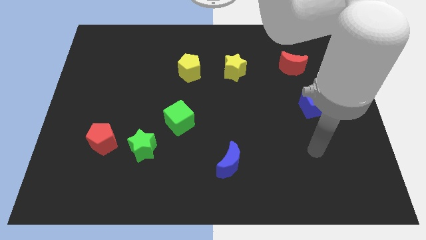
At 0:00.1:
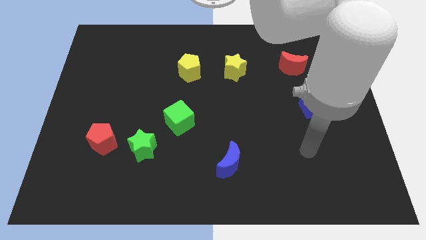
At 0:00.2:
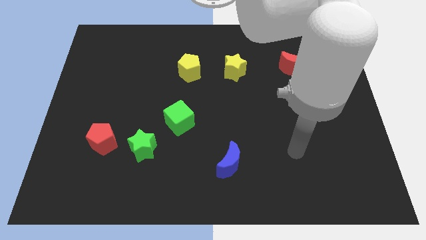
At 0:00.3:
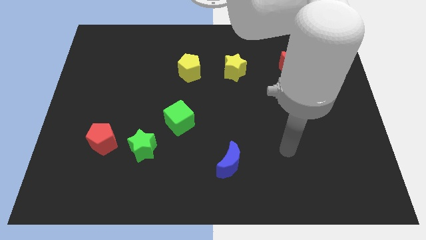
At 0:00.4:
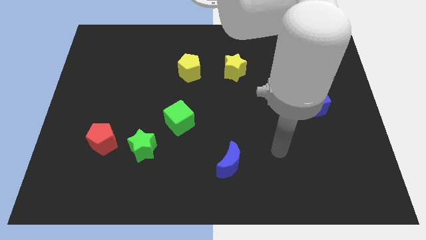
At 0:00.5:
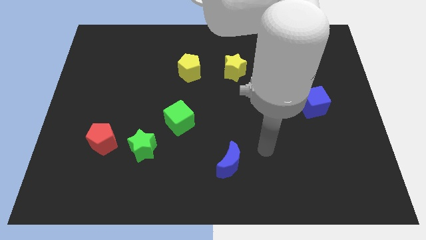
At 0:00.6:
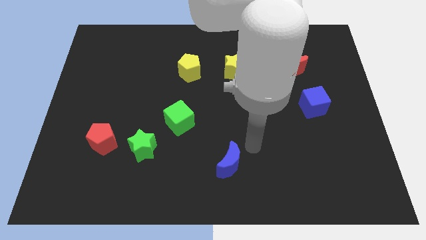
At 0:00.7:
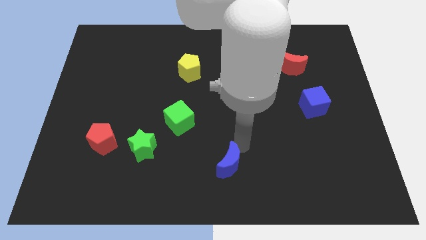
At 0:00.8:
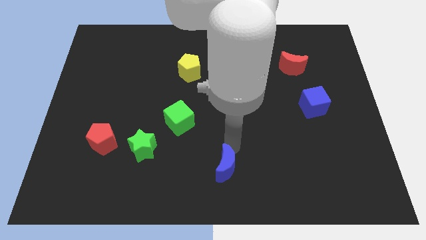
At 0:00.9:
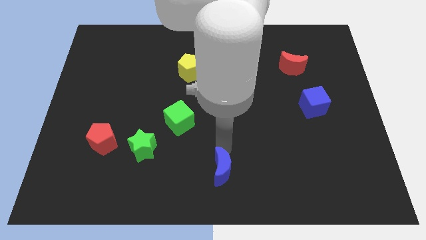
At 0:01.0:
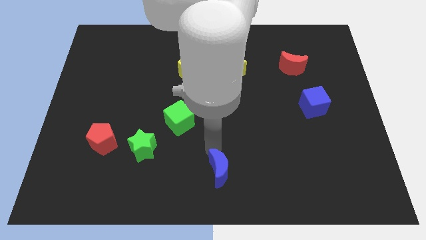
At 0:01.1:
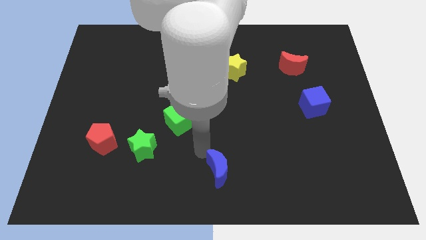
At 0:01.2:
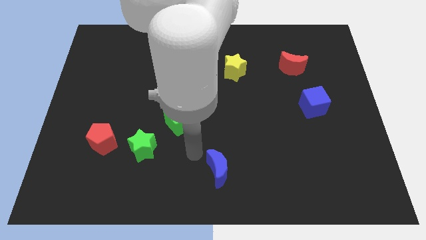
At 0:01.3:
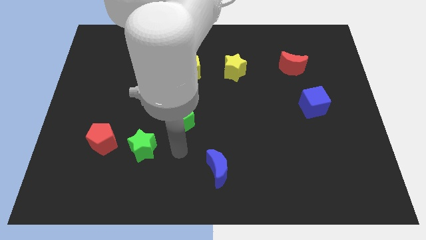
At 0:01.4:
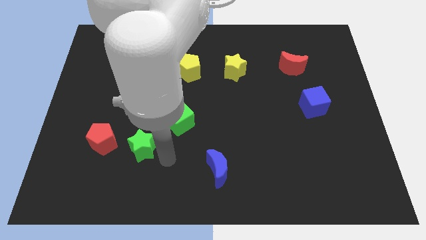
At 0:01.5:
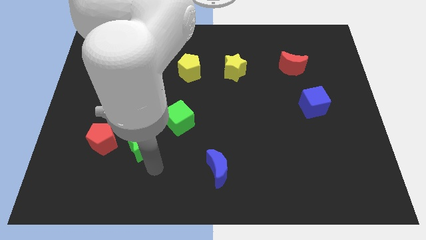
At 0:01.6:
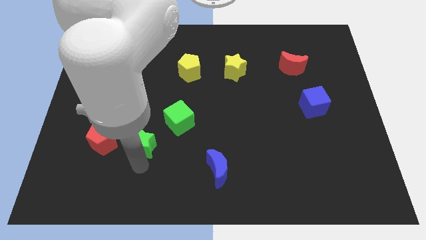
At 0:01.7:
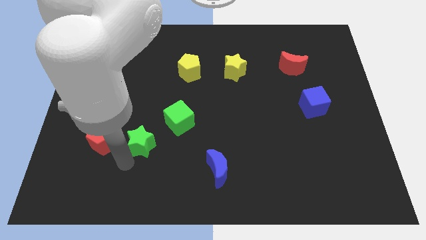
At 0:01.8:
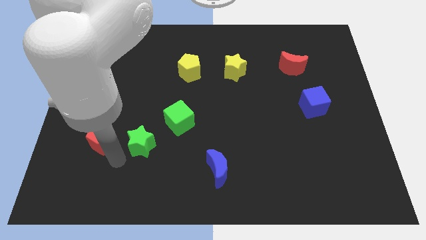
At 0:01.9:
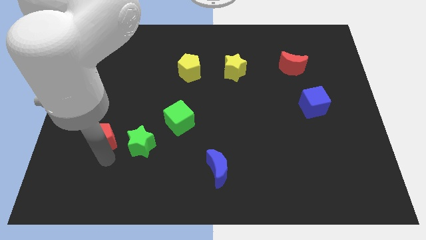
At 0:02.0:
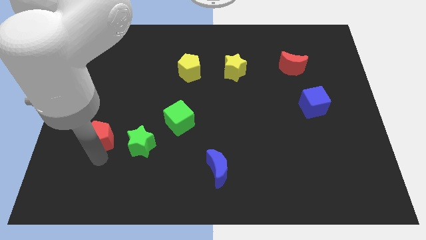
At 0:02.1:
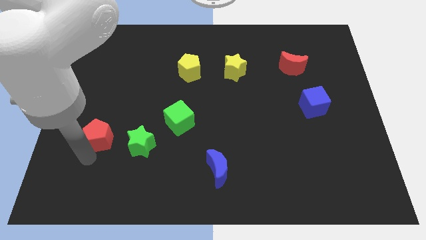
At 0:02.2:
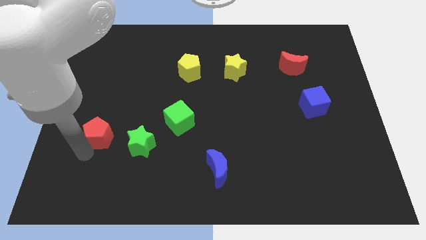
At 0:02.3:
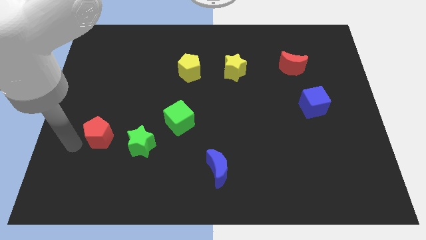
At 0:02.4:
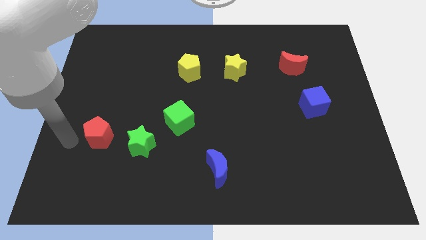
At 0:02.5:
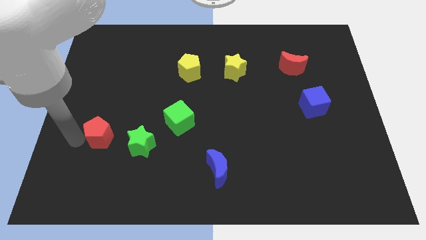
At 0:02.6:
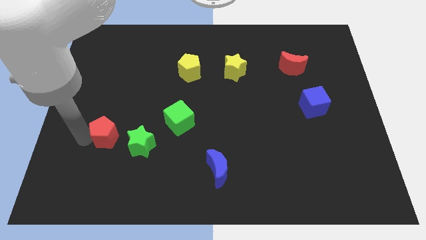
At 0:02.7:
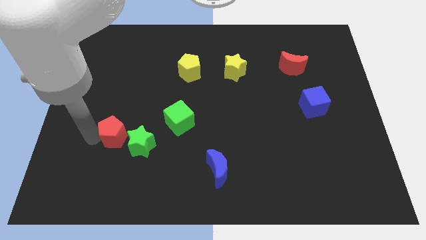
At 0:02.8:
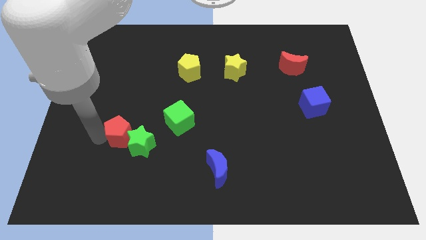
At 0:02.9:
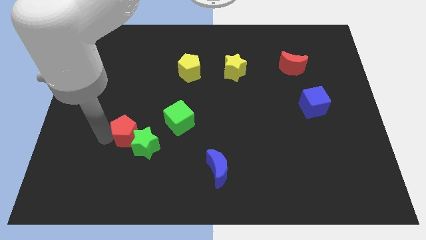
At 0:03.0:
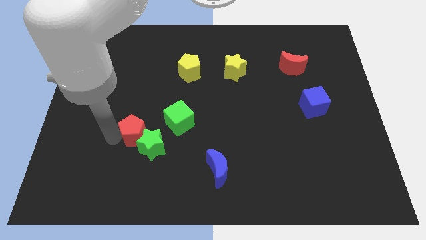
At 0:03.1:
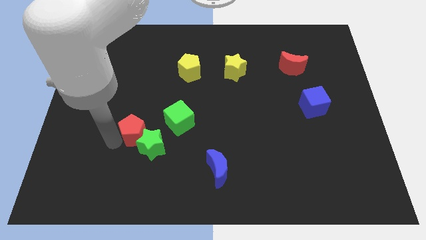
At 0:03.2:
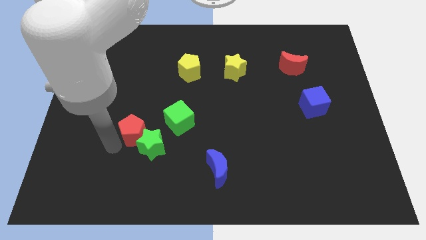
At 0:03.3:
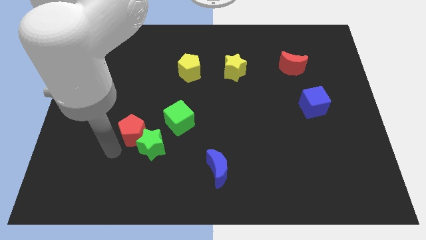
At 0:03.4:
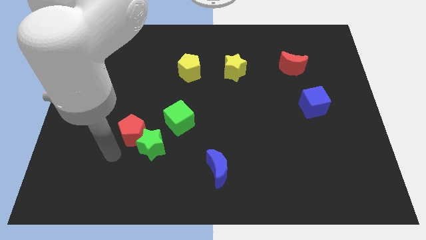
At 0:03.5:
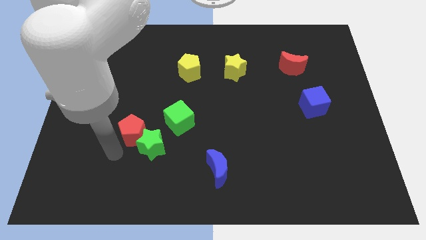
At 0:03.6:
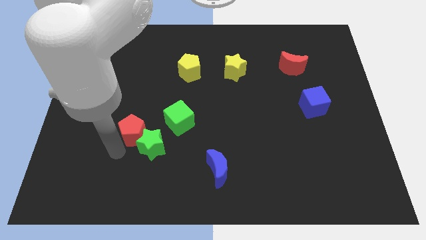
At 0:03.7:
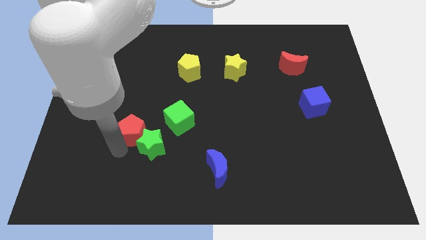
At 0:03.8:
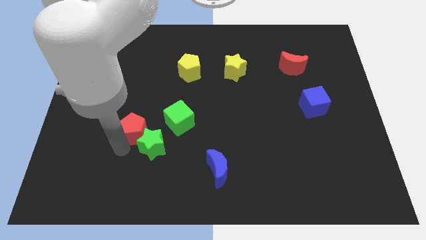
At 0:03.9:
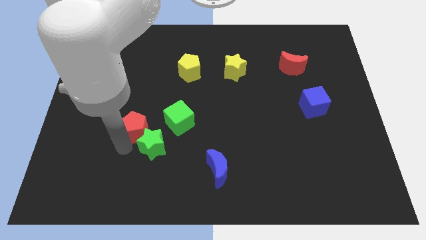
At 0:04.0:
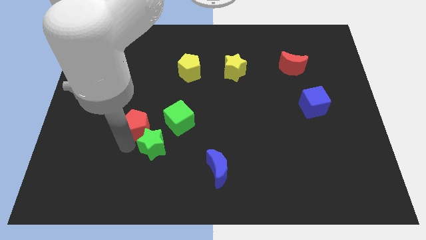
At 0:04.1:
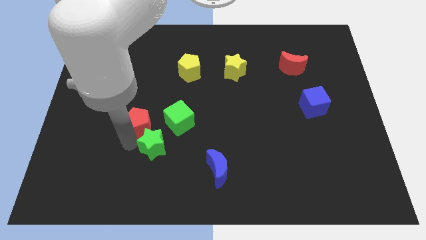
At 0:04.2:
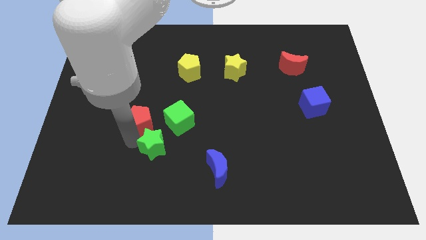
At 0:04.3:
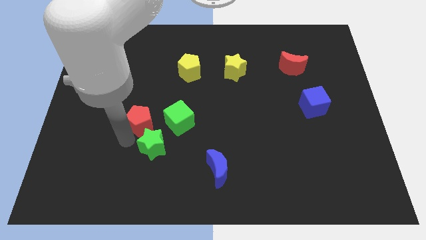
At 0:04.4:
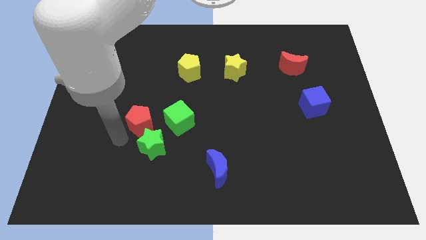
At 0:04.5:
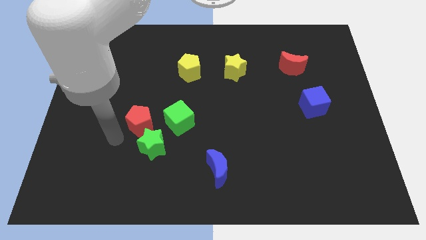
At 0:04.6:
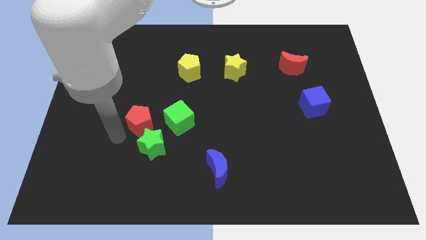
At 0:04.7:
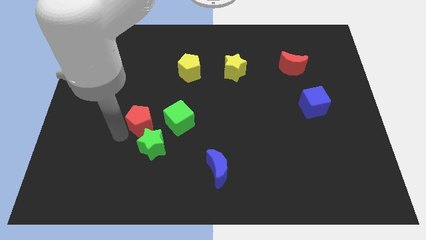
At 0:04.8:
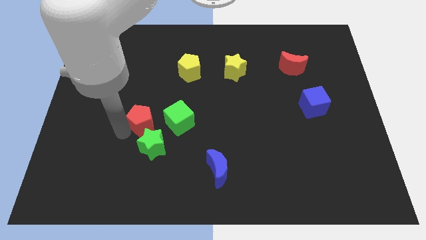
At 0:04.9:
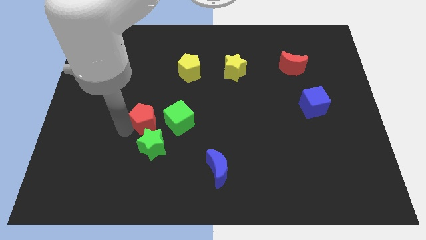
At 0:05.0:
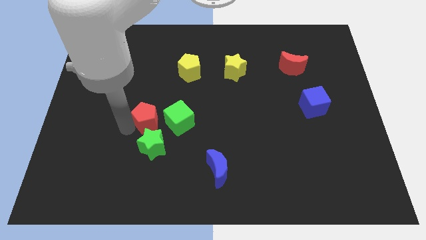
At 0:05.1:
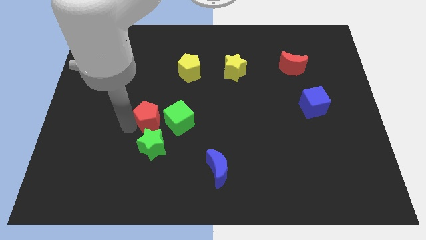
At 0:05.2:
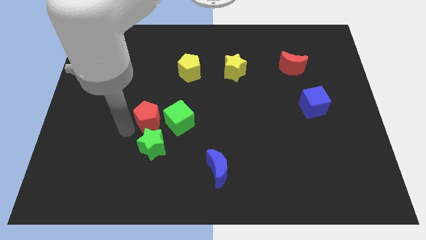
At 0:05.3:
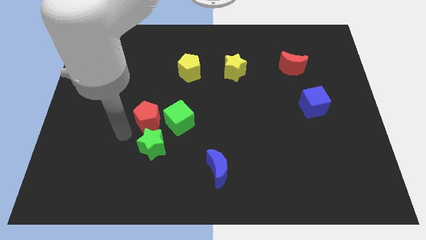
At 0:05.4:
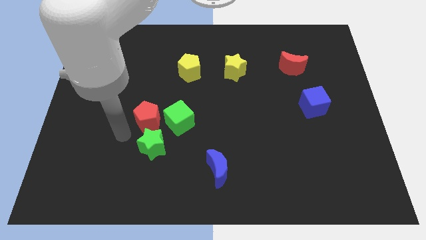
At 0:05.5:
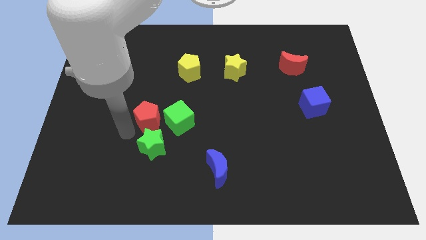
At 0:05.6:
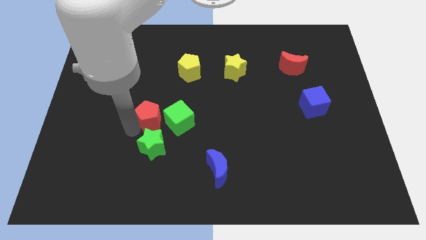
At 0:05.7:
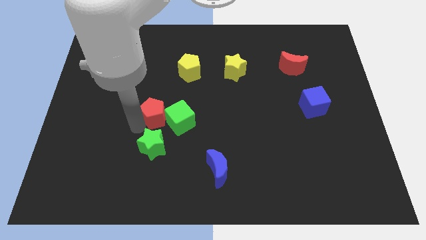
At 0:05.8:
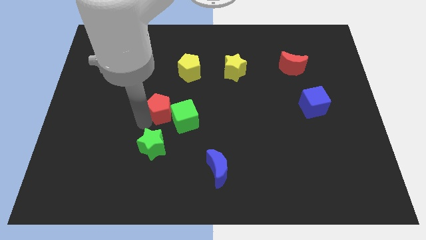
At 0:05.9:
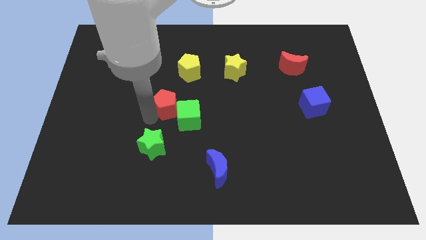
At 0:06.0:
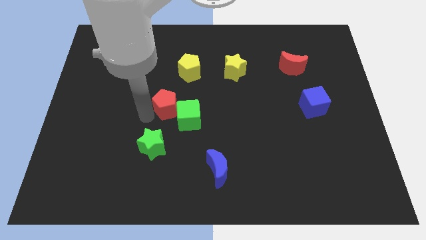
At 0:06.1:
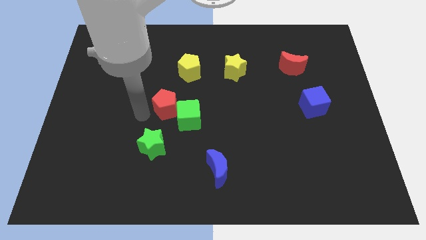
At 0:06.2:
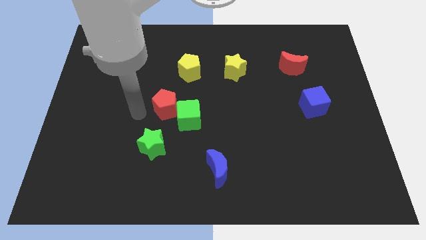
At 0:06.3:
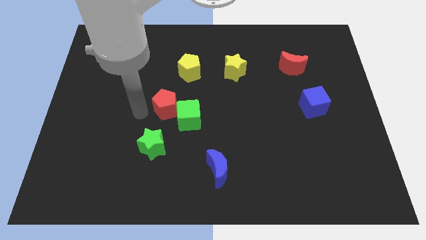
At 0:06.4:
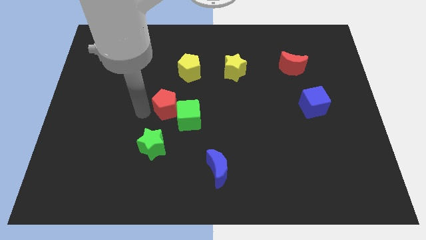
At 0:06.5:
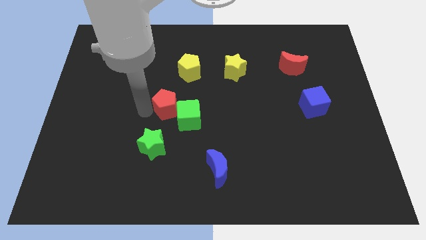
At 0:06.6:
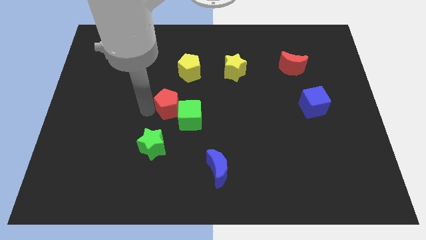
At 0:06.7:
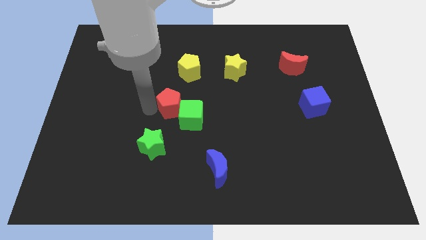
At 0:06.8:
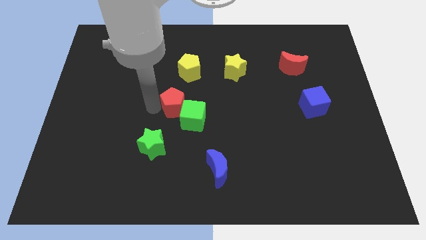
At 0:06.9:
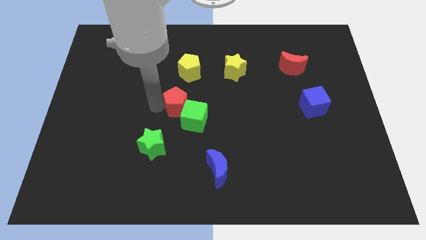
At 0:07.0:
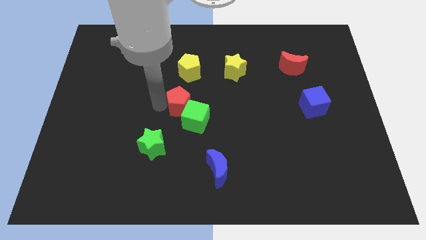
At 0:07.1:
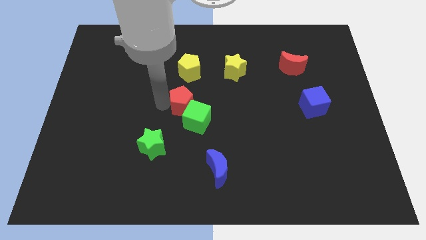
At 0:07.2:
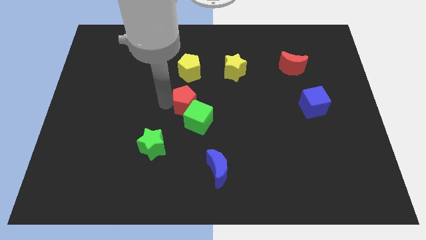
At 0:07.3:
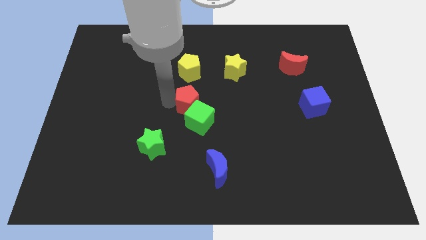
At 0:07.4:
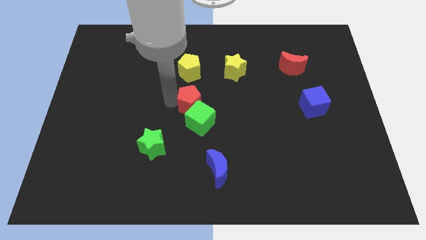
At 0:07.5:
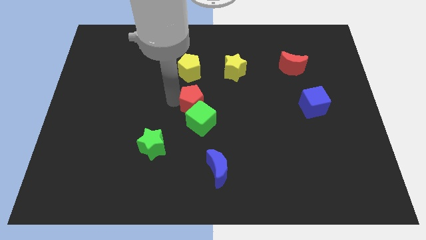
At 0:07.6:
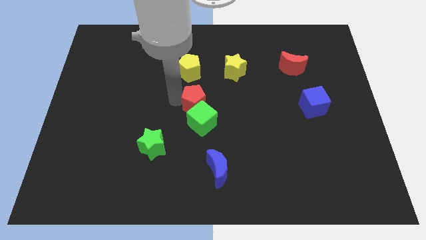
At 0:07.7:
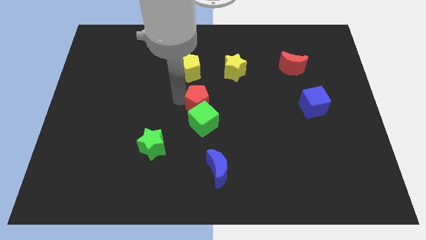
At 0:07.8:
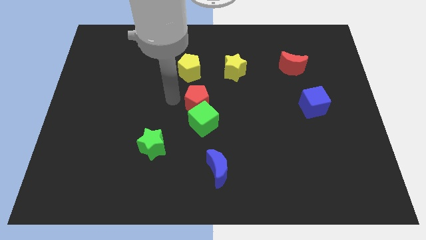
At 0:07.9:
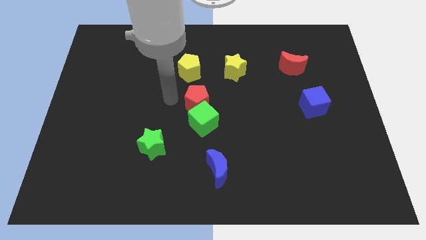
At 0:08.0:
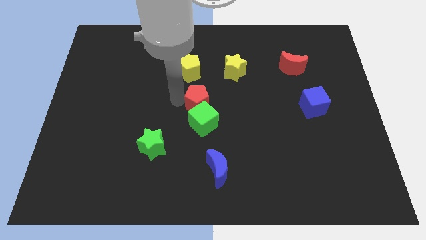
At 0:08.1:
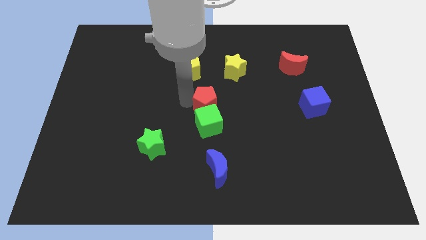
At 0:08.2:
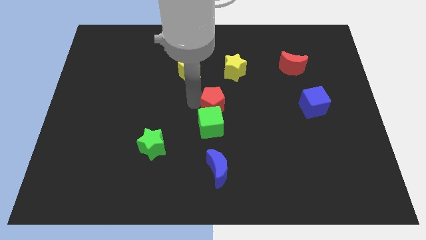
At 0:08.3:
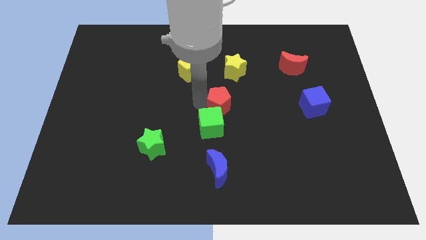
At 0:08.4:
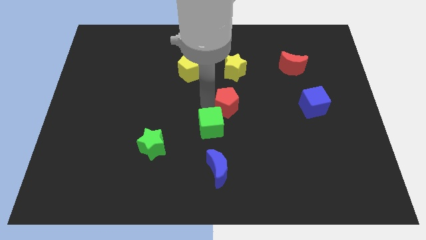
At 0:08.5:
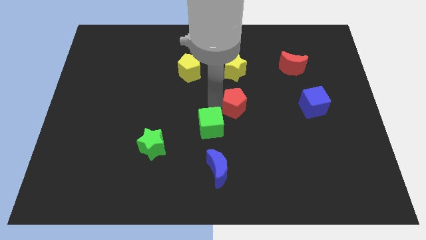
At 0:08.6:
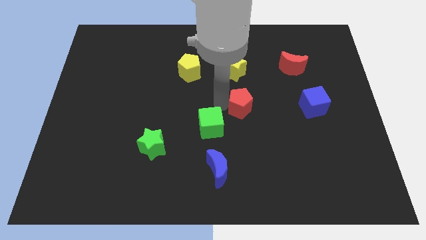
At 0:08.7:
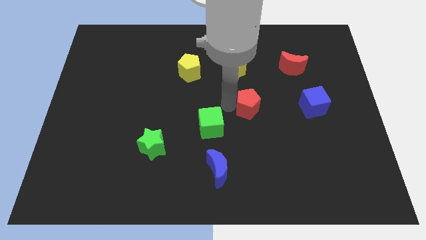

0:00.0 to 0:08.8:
move the red pentagon to the left side of the blue cube
